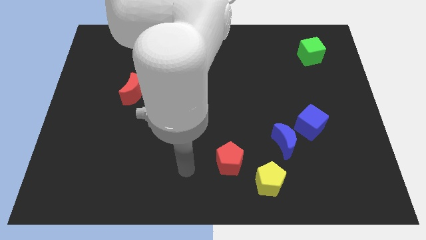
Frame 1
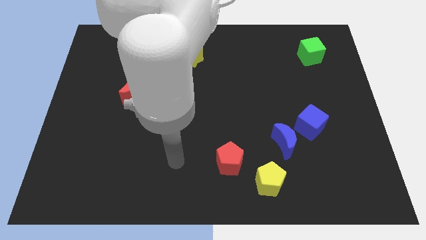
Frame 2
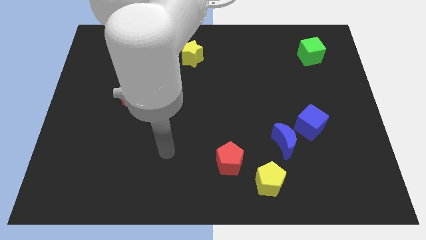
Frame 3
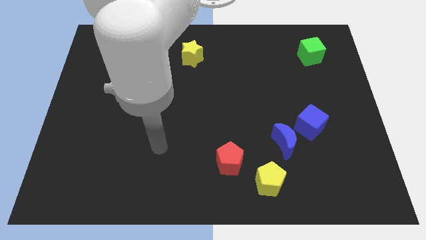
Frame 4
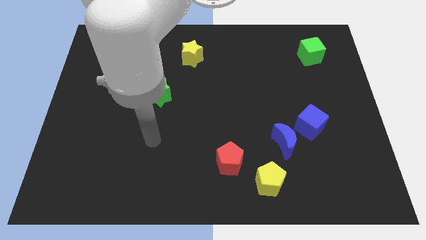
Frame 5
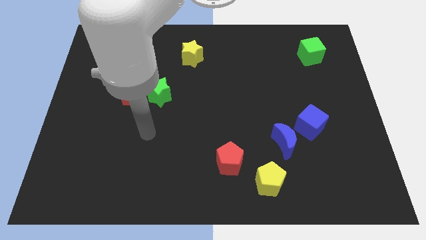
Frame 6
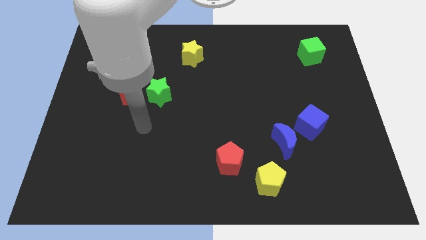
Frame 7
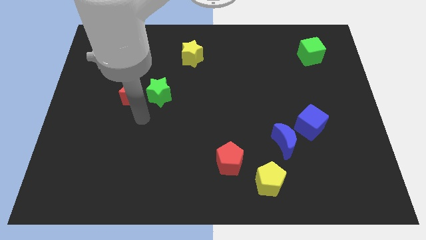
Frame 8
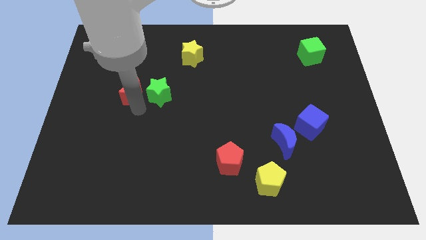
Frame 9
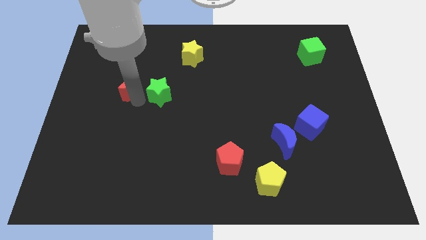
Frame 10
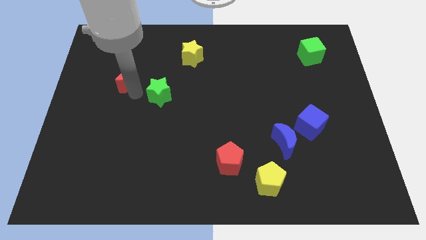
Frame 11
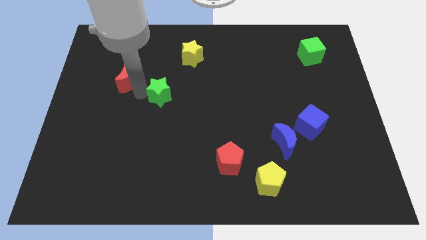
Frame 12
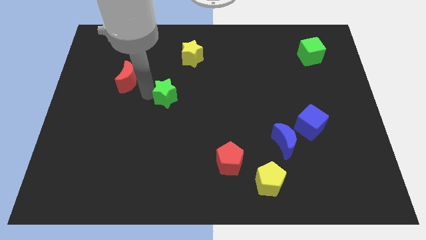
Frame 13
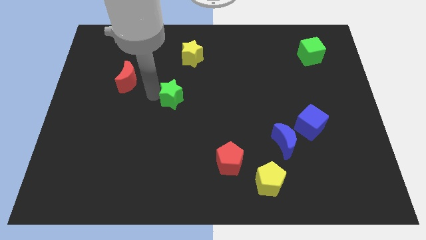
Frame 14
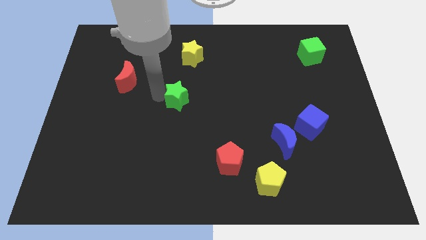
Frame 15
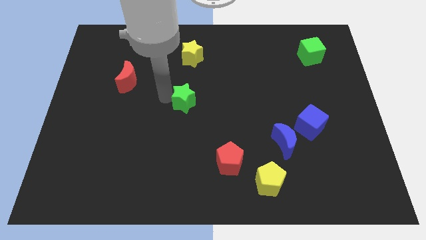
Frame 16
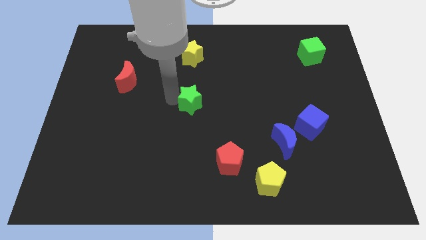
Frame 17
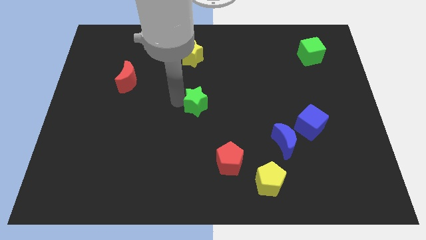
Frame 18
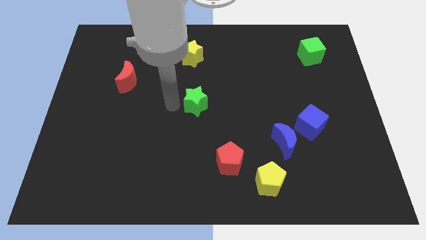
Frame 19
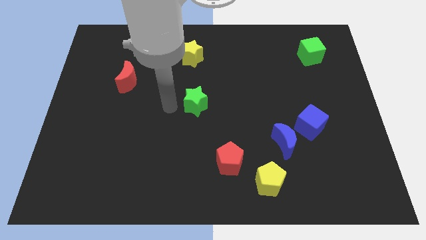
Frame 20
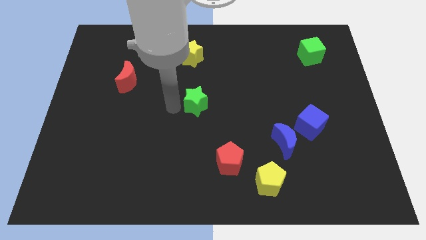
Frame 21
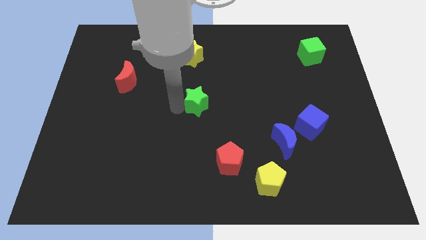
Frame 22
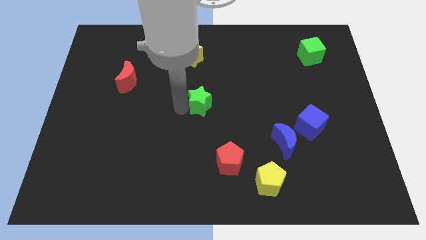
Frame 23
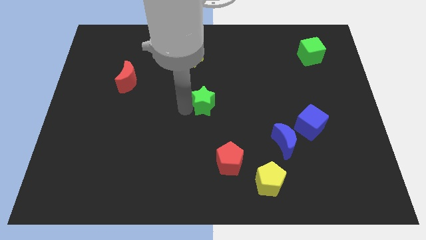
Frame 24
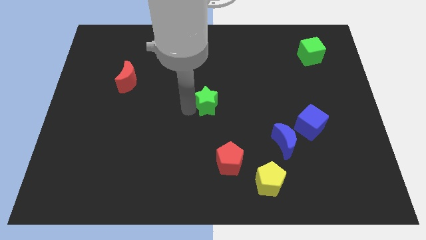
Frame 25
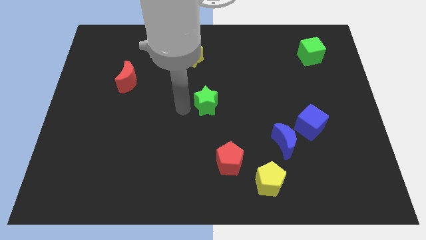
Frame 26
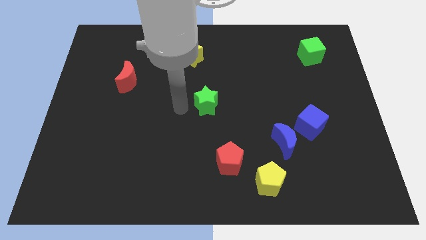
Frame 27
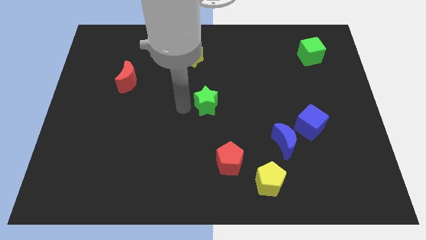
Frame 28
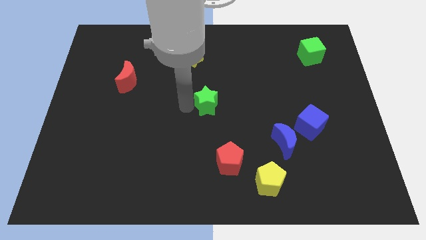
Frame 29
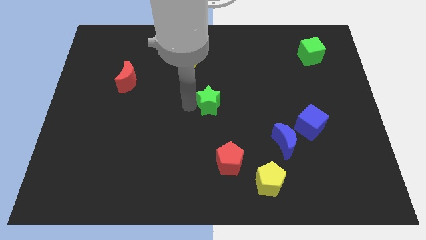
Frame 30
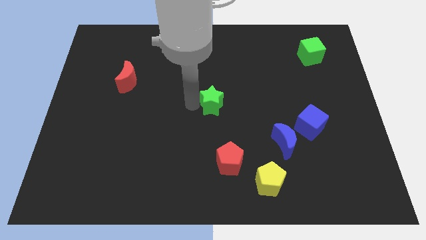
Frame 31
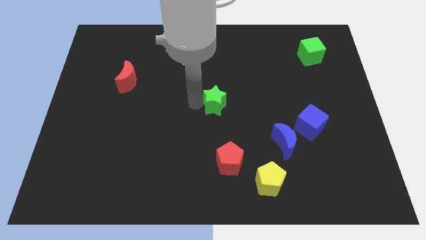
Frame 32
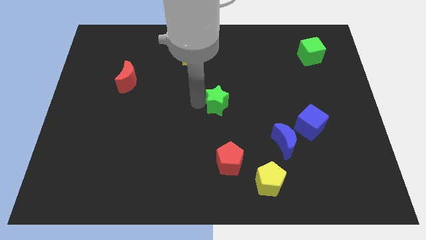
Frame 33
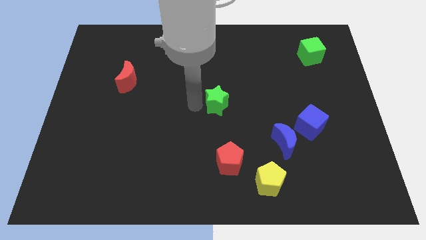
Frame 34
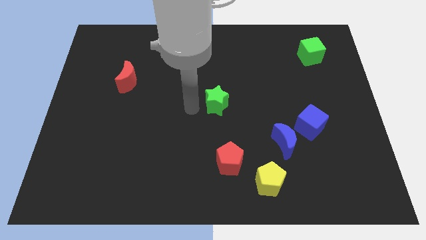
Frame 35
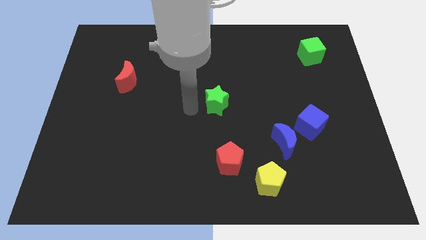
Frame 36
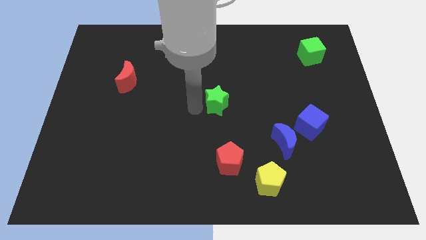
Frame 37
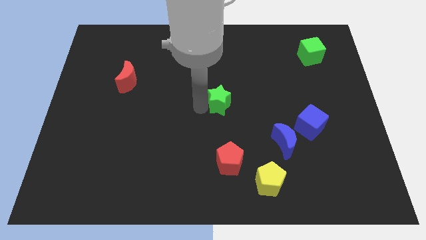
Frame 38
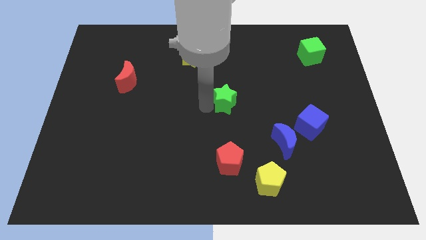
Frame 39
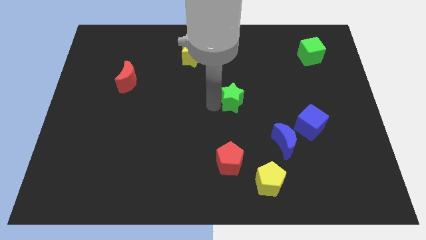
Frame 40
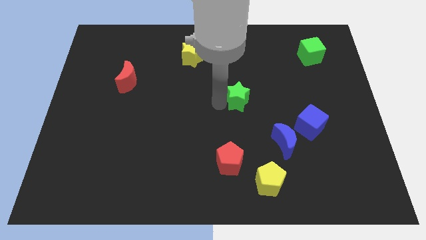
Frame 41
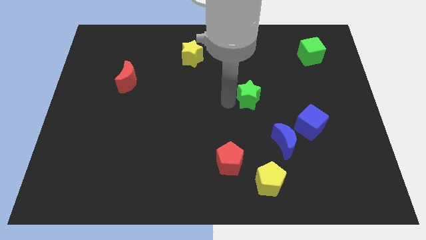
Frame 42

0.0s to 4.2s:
slide the green star right

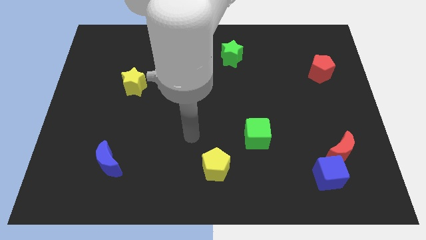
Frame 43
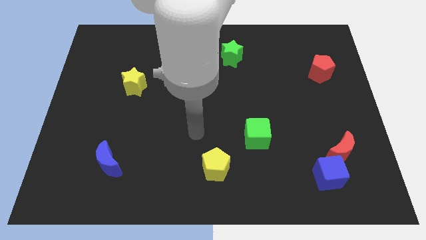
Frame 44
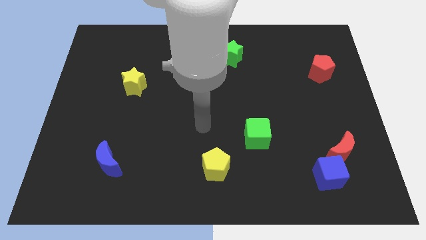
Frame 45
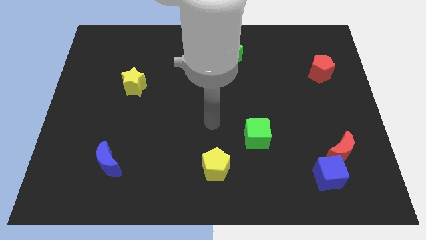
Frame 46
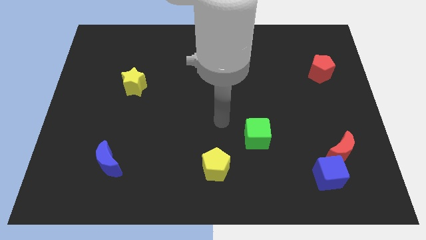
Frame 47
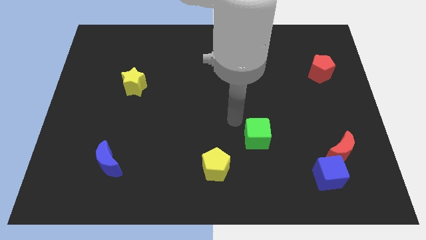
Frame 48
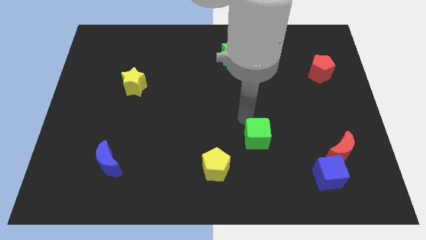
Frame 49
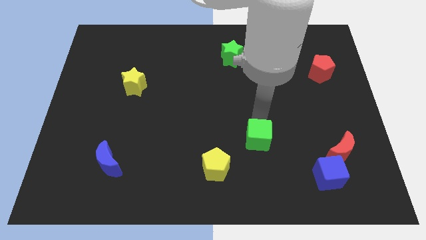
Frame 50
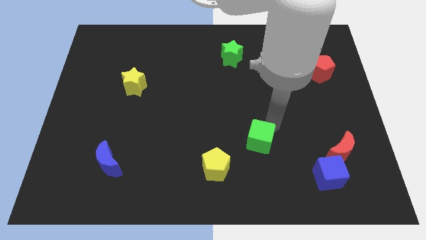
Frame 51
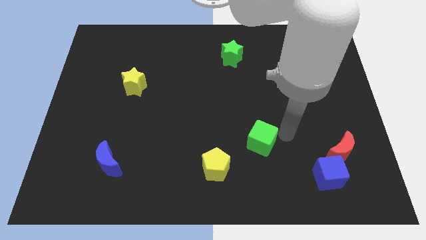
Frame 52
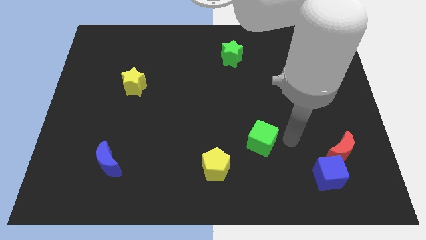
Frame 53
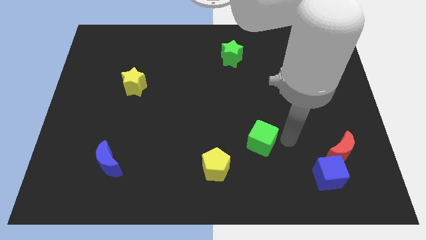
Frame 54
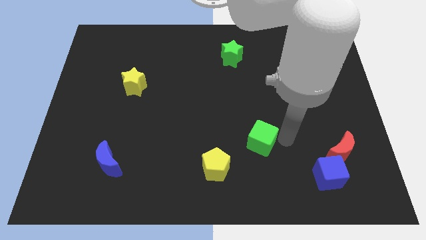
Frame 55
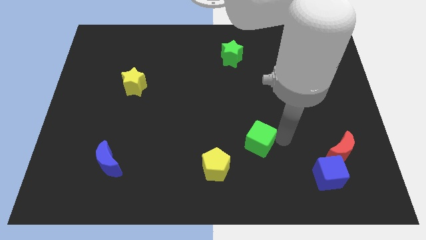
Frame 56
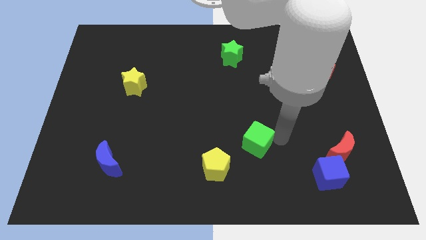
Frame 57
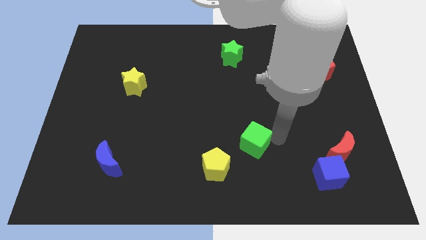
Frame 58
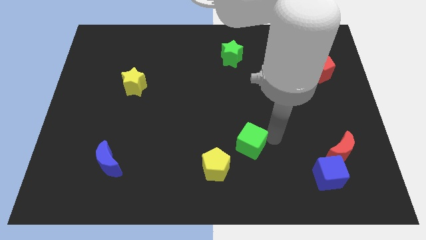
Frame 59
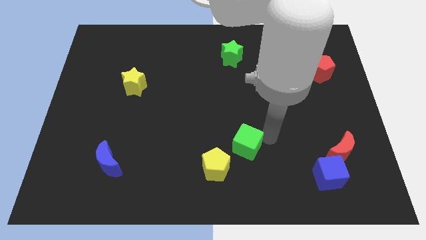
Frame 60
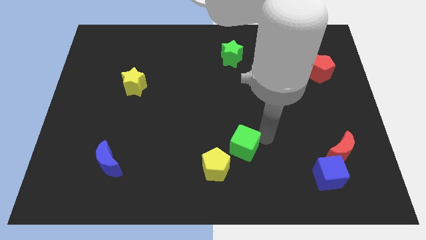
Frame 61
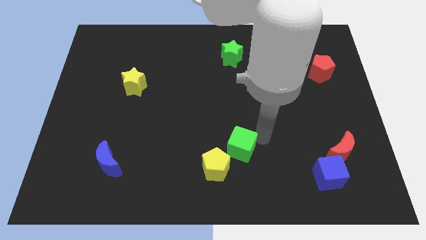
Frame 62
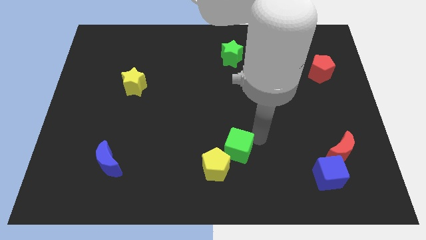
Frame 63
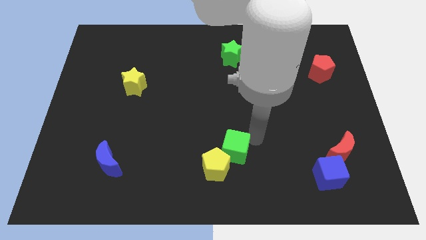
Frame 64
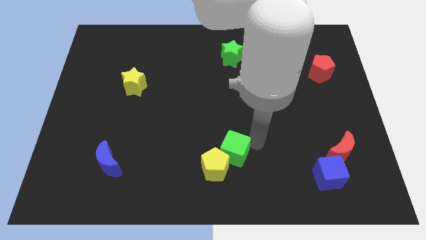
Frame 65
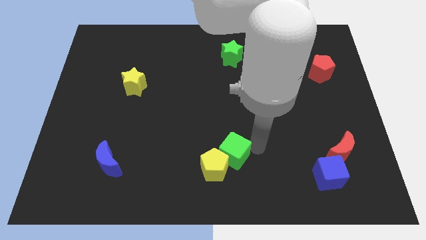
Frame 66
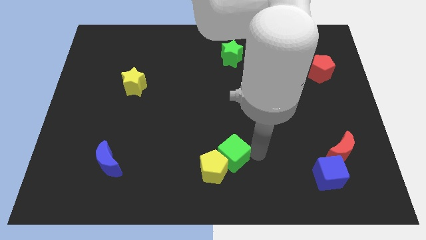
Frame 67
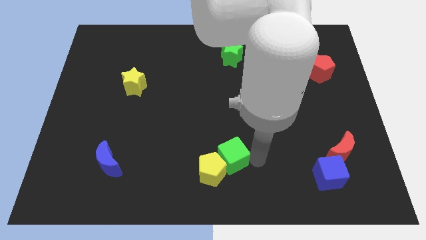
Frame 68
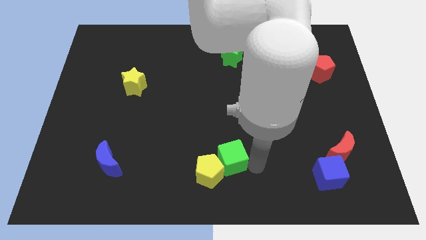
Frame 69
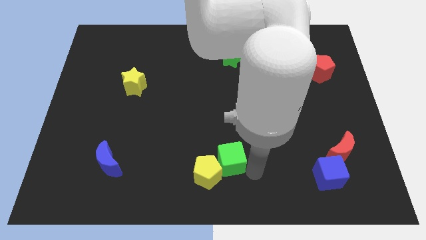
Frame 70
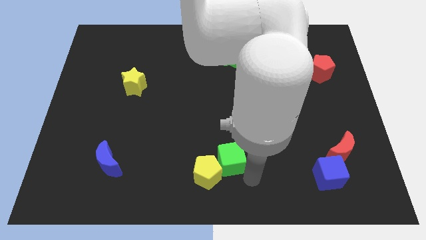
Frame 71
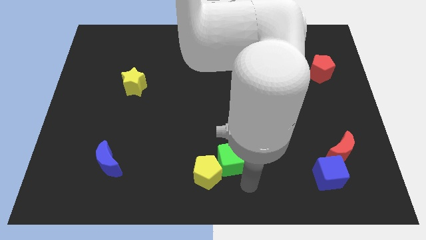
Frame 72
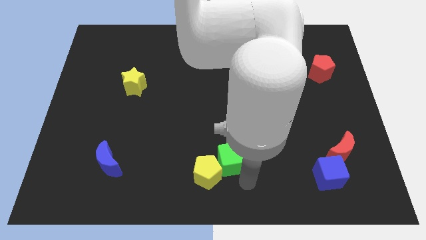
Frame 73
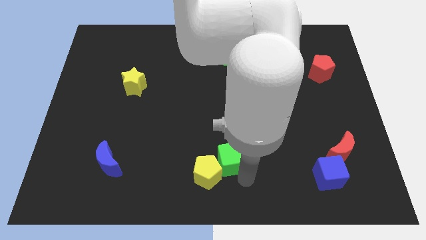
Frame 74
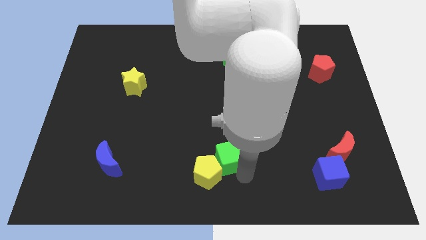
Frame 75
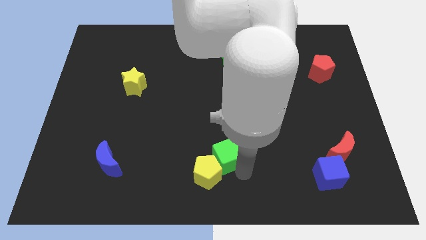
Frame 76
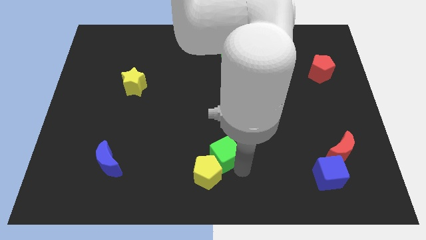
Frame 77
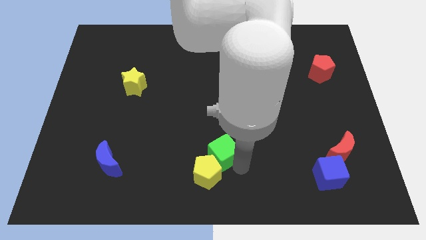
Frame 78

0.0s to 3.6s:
slightly slide the green cube left

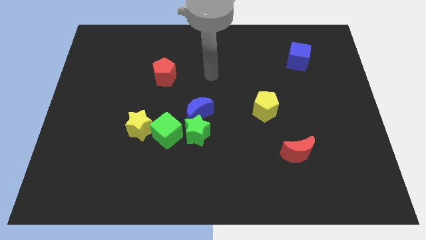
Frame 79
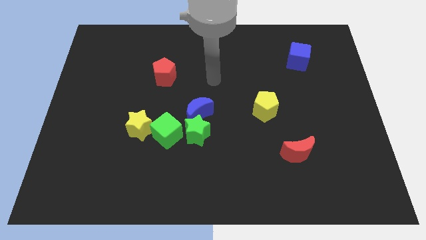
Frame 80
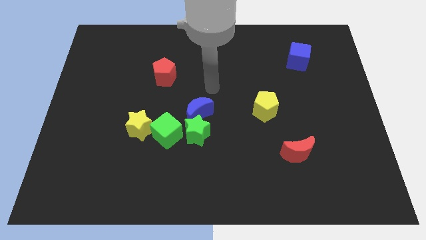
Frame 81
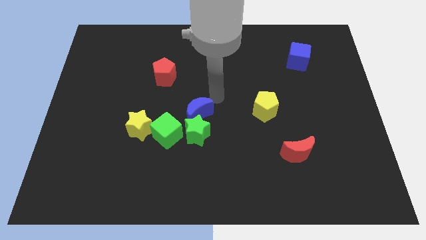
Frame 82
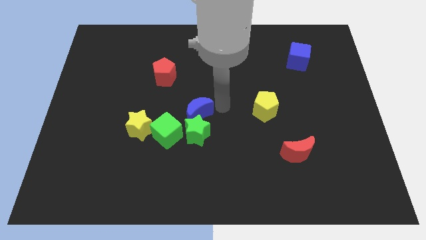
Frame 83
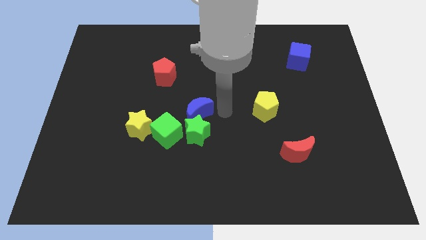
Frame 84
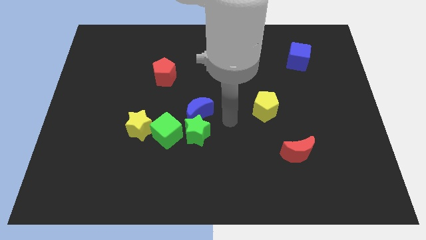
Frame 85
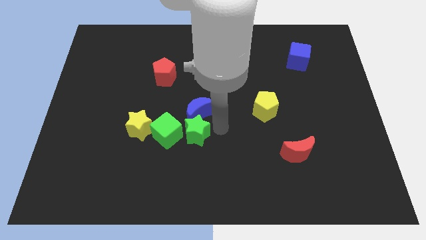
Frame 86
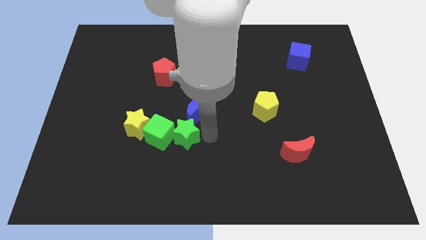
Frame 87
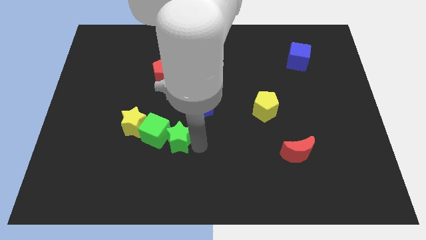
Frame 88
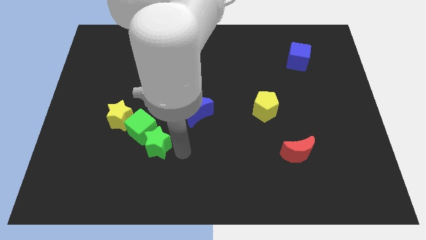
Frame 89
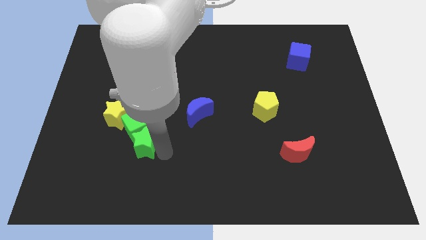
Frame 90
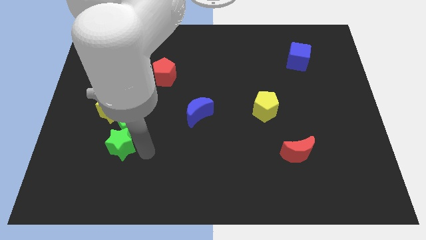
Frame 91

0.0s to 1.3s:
slightly push the green cube upwards and left
